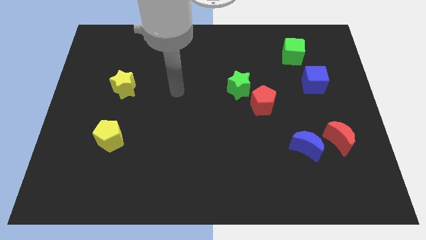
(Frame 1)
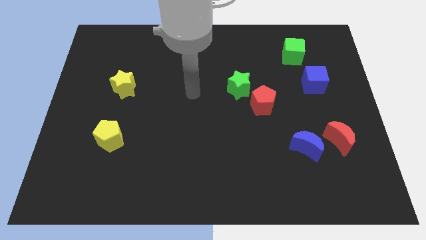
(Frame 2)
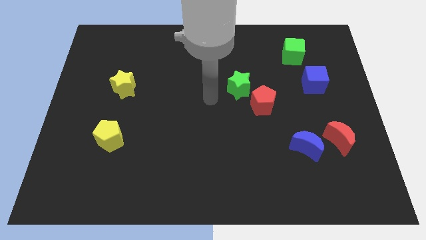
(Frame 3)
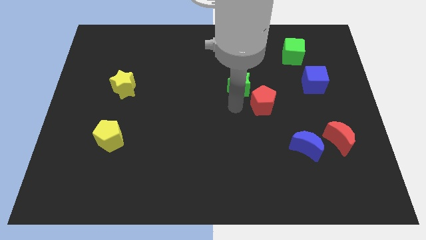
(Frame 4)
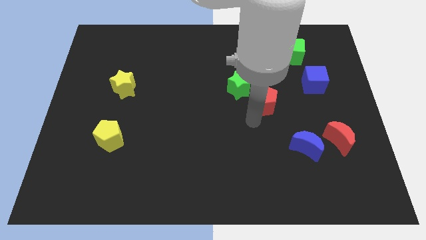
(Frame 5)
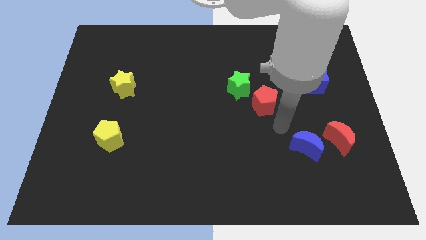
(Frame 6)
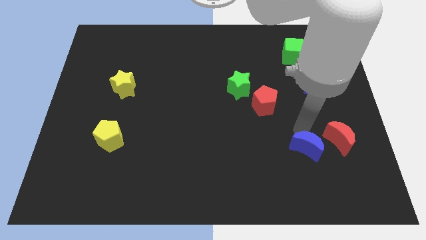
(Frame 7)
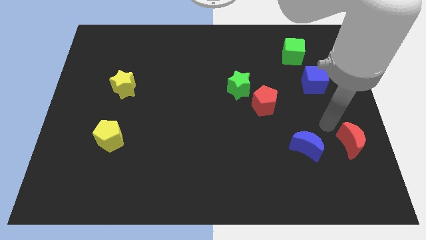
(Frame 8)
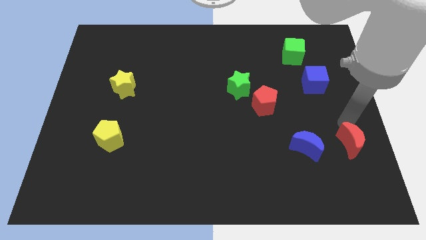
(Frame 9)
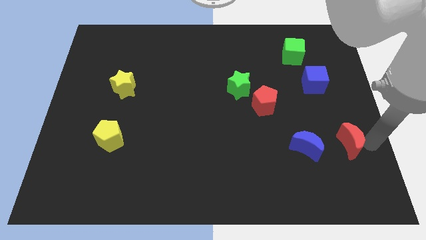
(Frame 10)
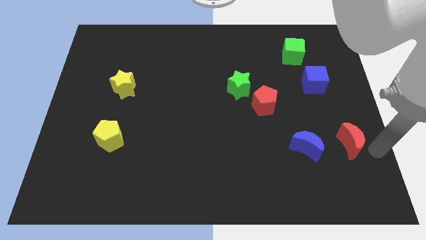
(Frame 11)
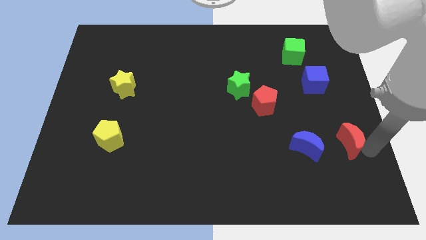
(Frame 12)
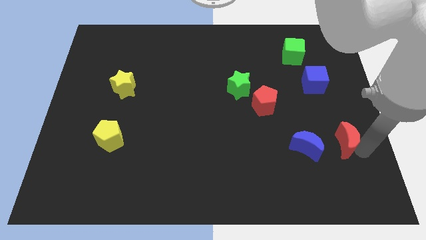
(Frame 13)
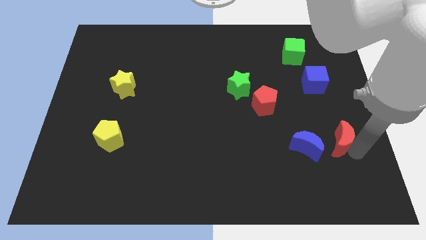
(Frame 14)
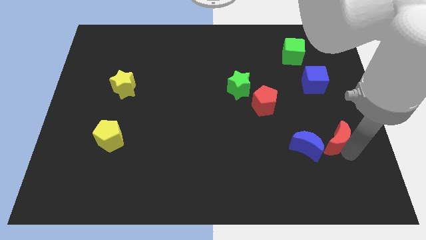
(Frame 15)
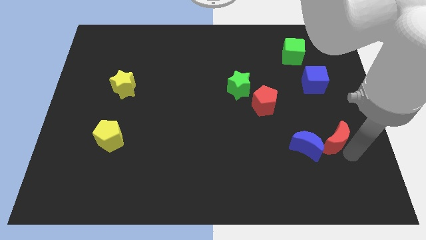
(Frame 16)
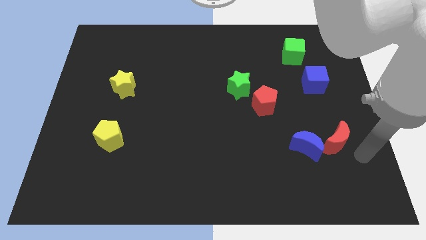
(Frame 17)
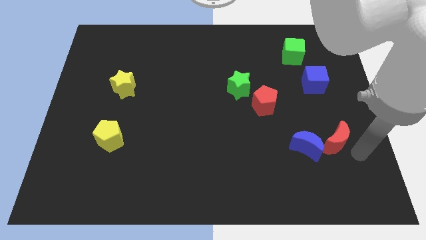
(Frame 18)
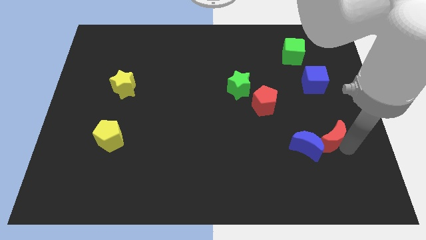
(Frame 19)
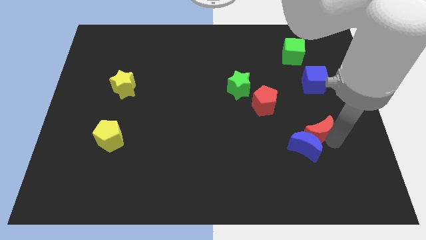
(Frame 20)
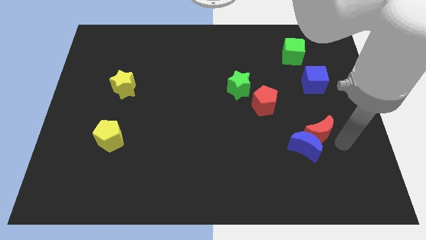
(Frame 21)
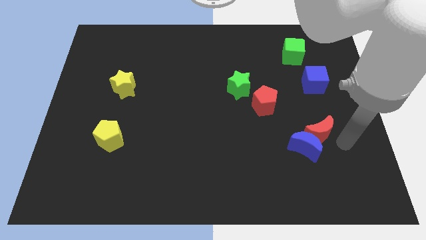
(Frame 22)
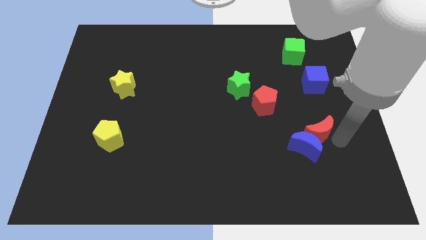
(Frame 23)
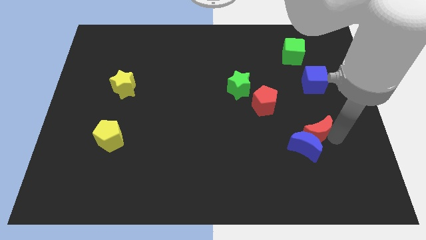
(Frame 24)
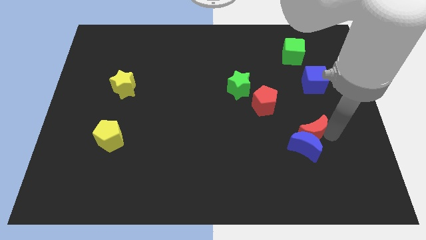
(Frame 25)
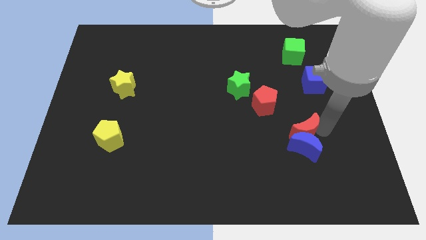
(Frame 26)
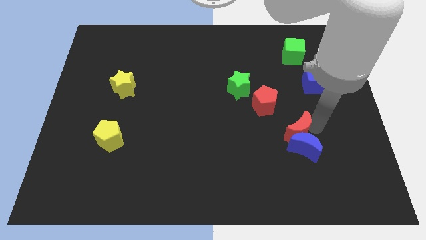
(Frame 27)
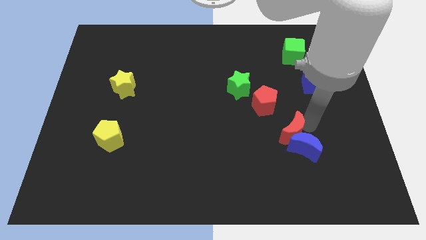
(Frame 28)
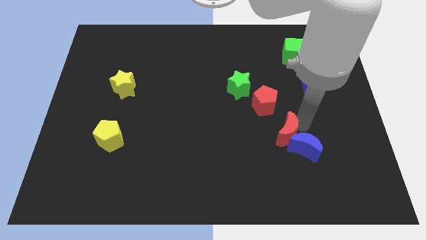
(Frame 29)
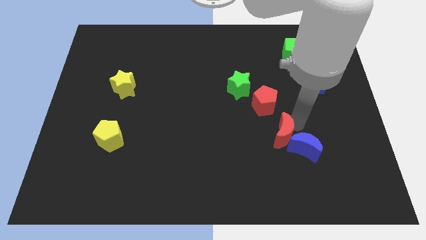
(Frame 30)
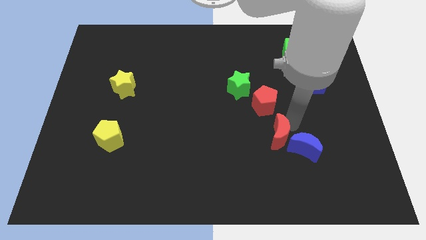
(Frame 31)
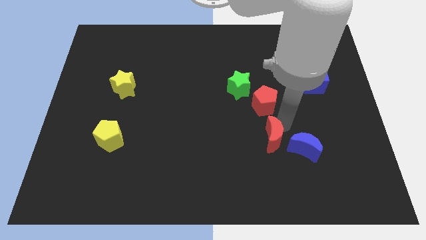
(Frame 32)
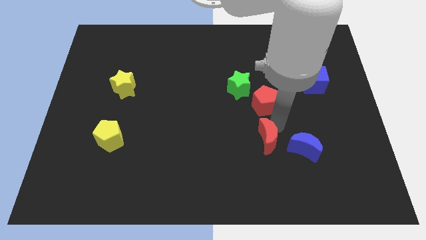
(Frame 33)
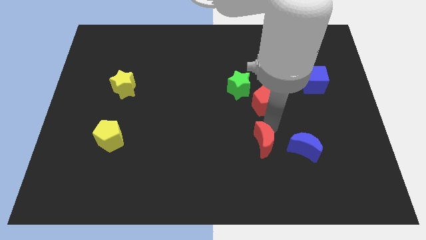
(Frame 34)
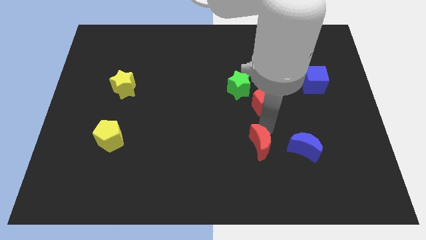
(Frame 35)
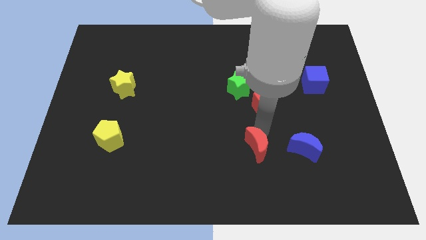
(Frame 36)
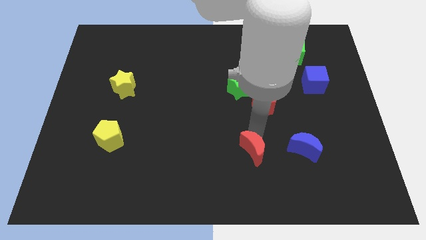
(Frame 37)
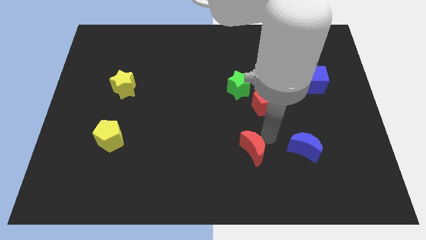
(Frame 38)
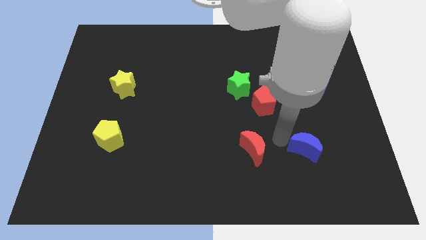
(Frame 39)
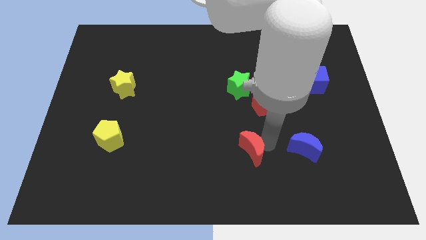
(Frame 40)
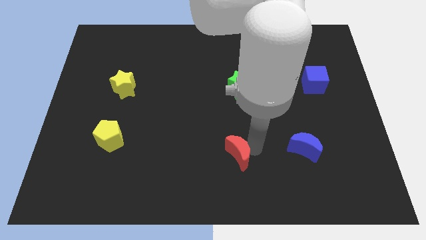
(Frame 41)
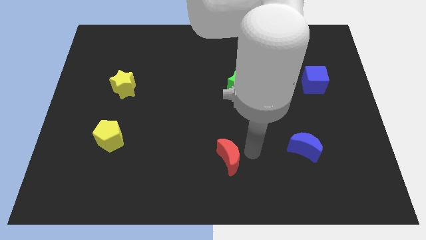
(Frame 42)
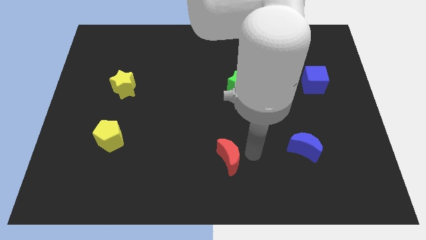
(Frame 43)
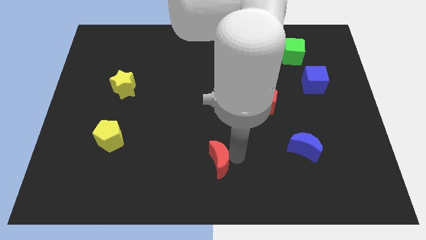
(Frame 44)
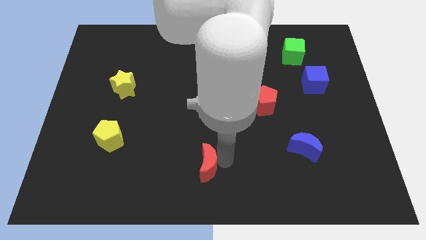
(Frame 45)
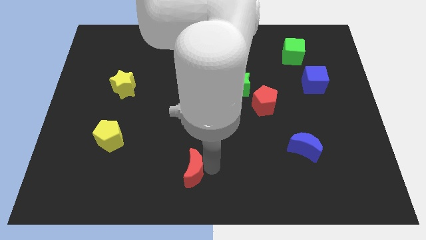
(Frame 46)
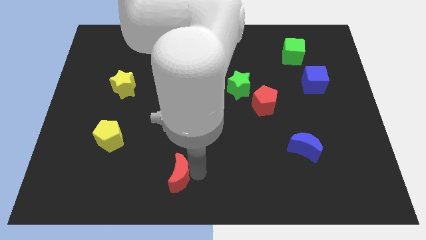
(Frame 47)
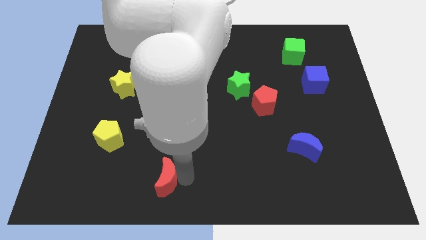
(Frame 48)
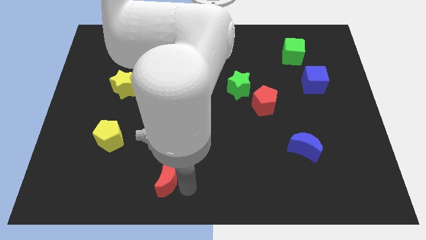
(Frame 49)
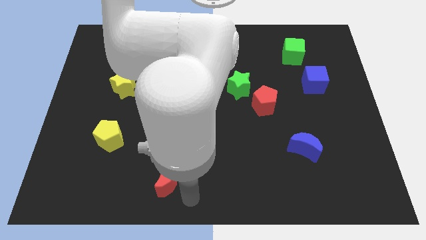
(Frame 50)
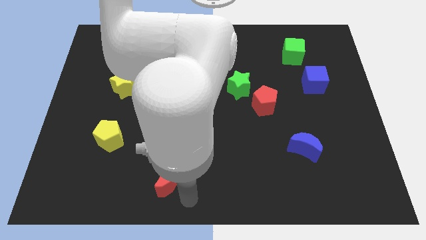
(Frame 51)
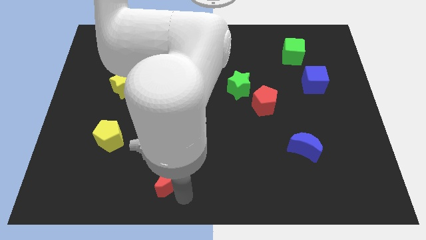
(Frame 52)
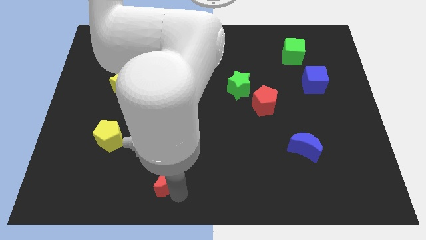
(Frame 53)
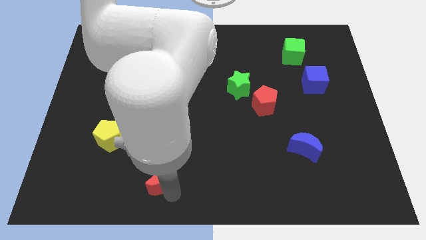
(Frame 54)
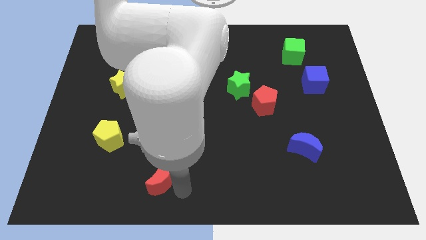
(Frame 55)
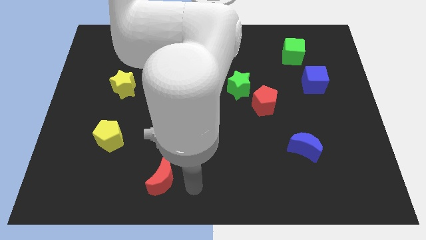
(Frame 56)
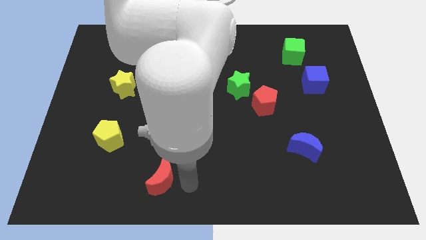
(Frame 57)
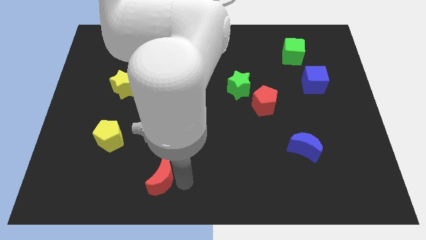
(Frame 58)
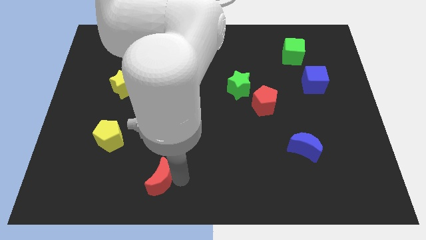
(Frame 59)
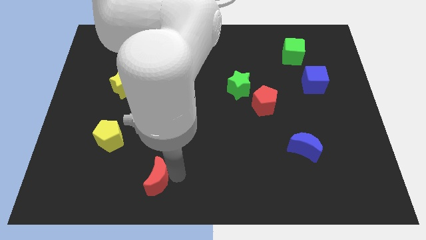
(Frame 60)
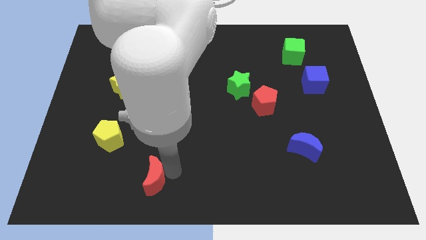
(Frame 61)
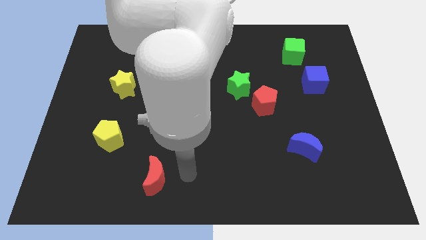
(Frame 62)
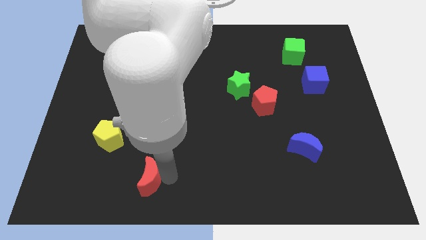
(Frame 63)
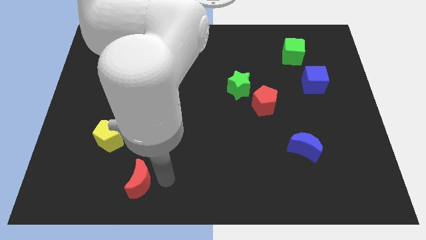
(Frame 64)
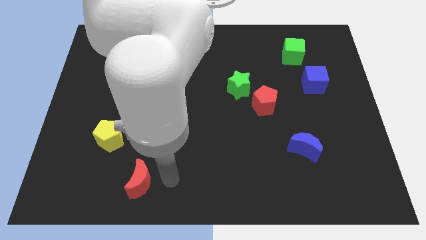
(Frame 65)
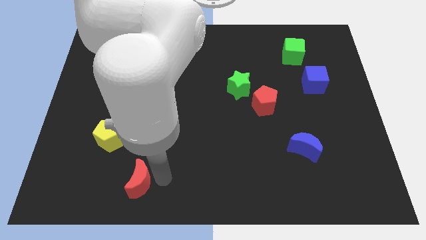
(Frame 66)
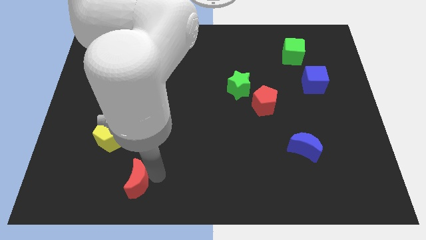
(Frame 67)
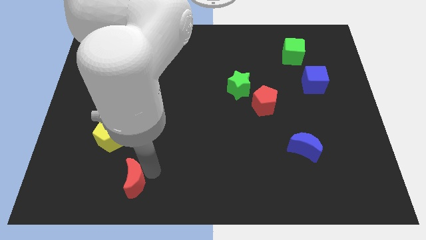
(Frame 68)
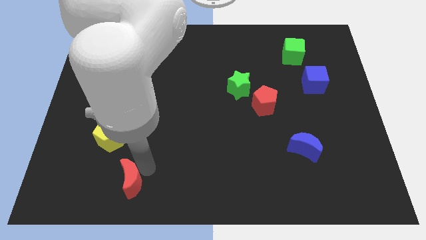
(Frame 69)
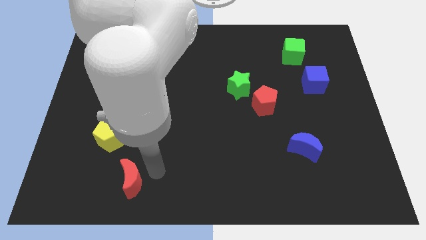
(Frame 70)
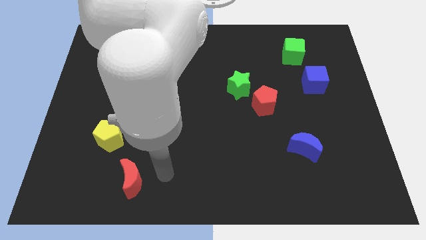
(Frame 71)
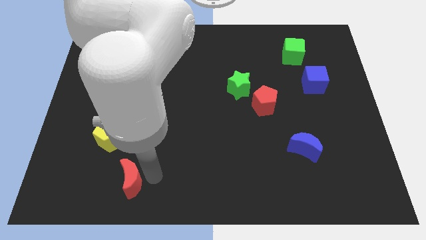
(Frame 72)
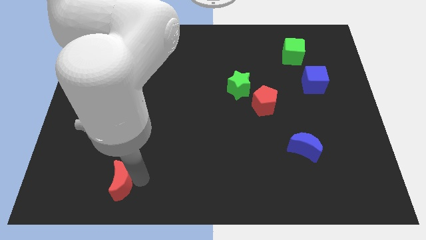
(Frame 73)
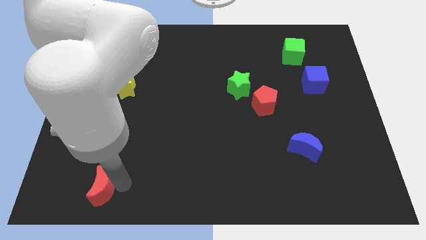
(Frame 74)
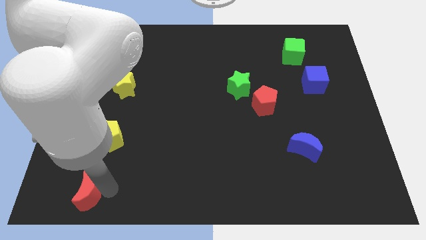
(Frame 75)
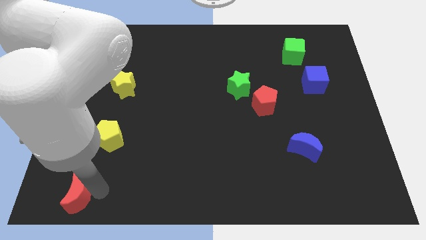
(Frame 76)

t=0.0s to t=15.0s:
slide the red moon to the bottom left corner

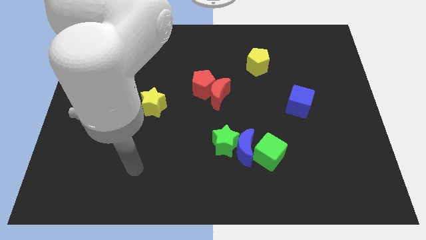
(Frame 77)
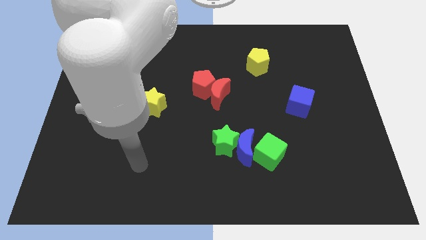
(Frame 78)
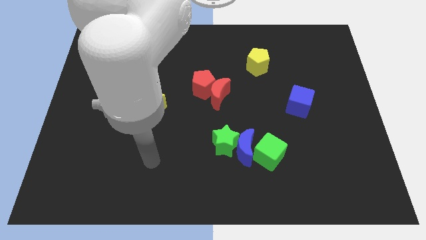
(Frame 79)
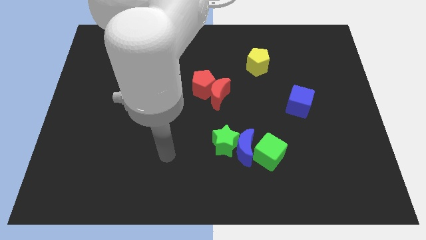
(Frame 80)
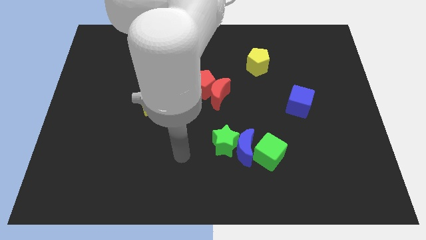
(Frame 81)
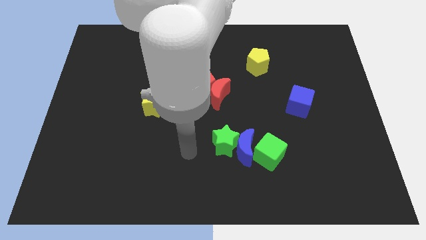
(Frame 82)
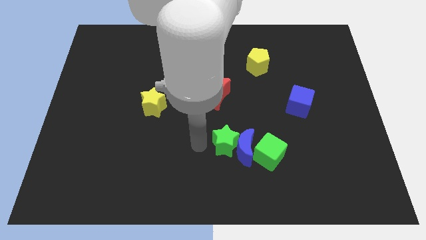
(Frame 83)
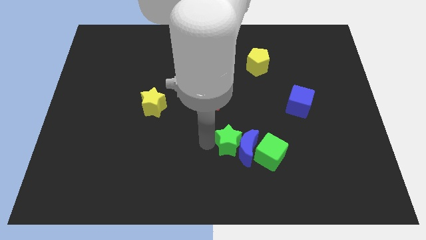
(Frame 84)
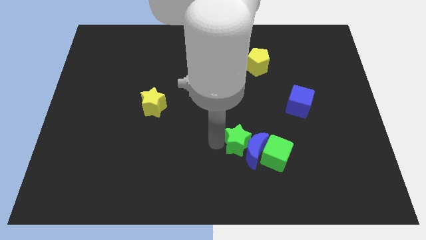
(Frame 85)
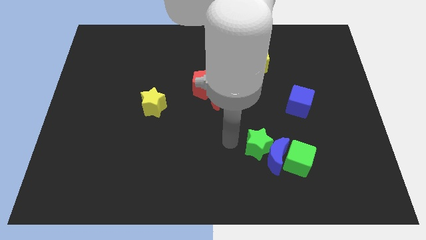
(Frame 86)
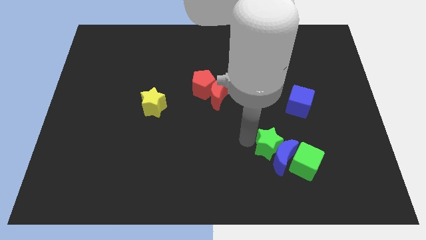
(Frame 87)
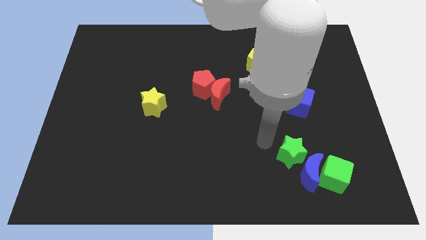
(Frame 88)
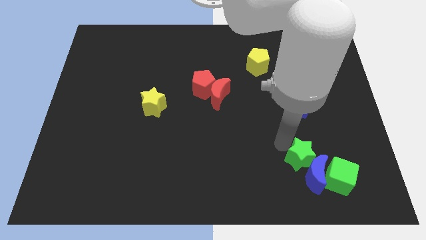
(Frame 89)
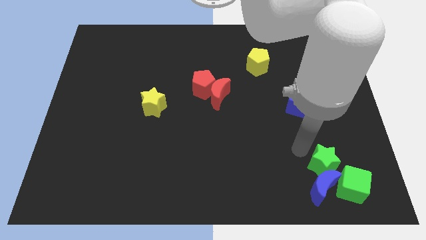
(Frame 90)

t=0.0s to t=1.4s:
slide the green cube to the bottom right corner
